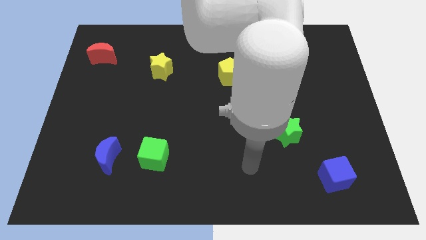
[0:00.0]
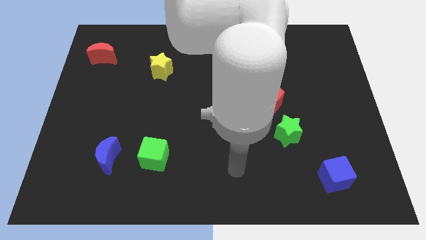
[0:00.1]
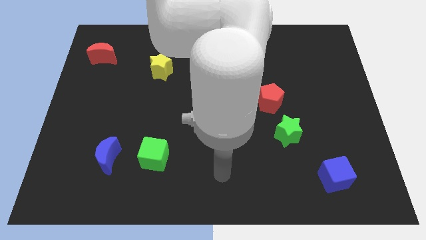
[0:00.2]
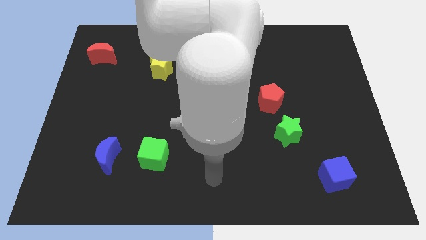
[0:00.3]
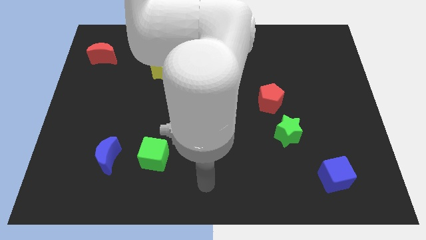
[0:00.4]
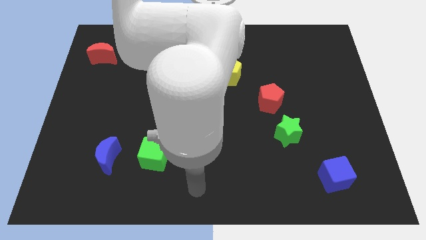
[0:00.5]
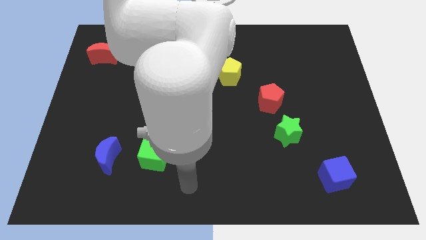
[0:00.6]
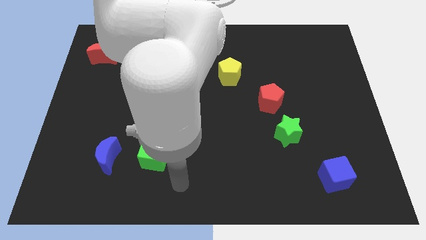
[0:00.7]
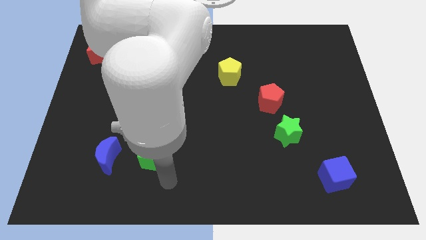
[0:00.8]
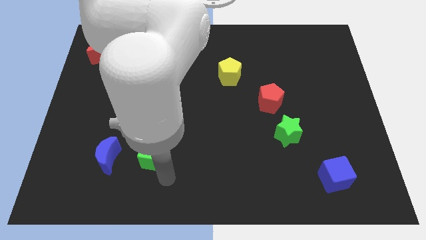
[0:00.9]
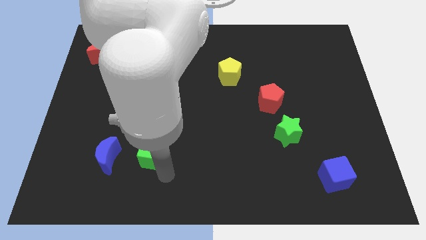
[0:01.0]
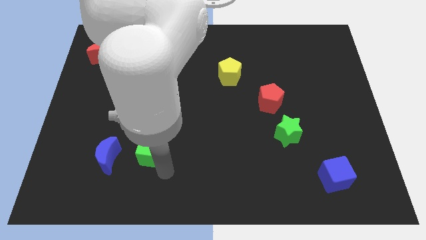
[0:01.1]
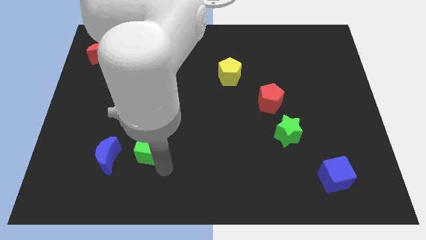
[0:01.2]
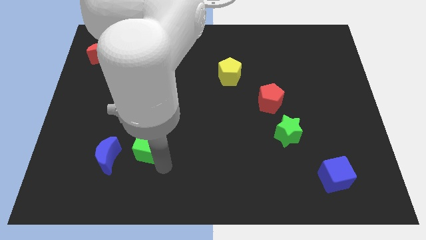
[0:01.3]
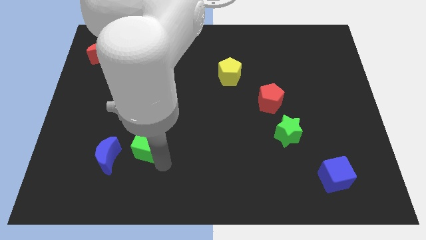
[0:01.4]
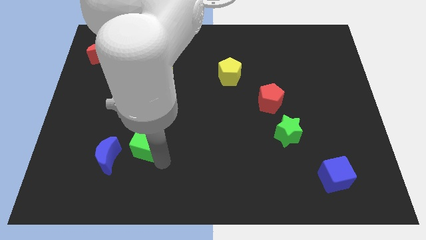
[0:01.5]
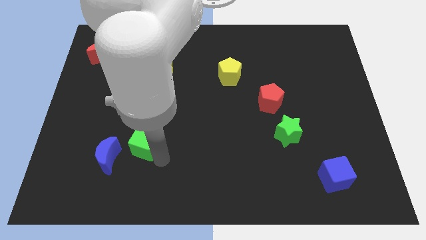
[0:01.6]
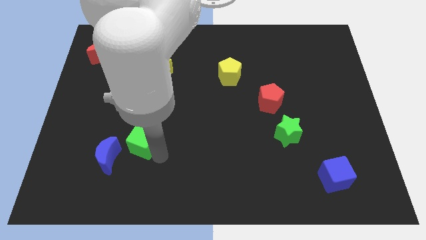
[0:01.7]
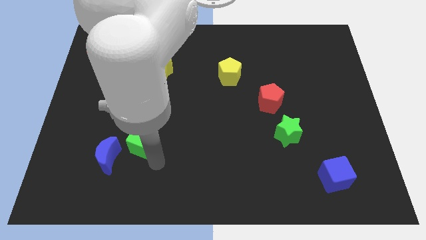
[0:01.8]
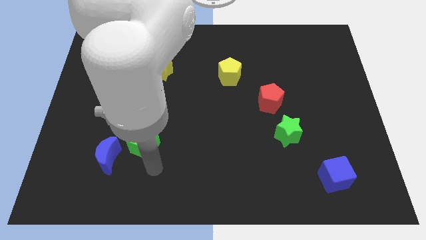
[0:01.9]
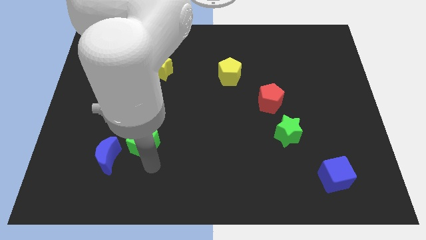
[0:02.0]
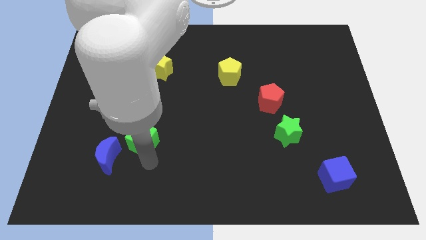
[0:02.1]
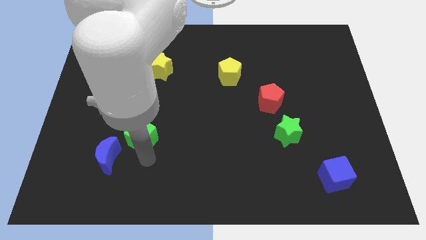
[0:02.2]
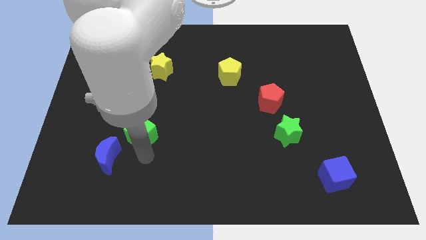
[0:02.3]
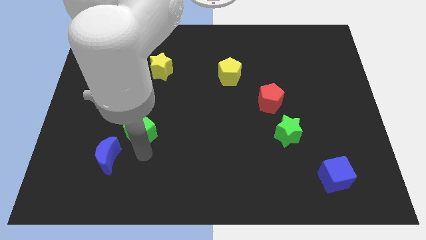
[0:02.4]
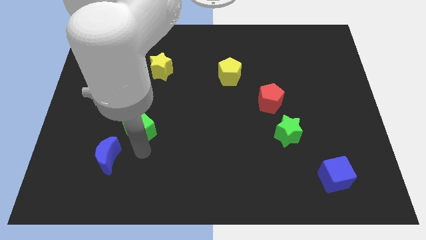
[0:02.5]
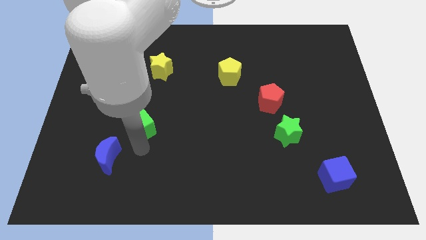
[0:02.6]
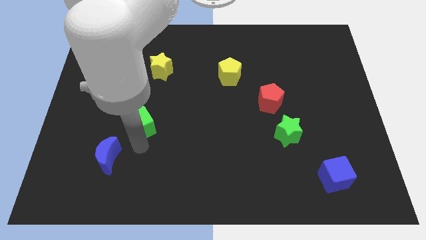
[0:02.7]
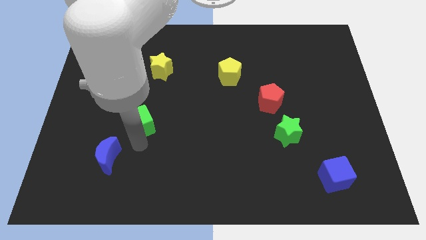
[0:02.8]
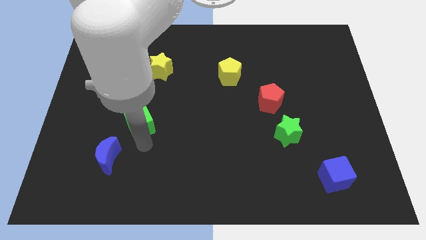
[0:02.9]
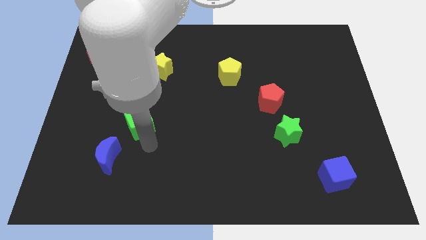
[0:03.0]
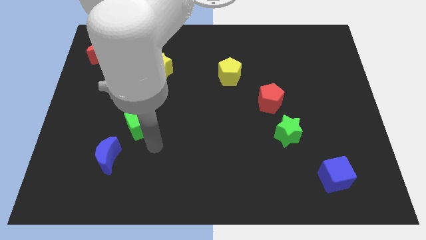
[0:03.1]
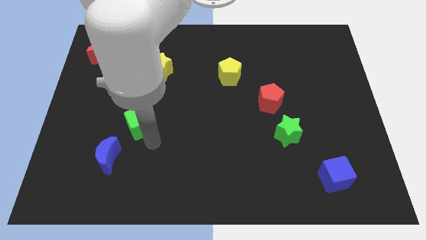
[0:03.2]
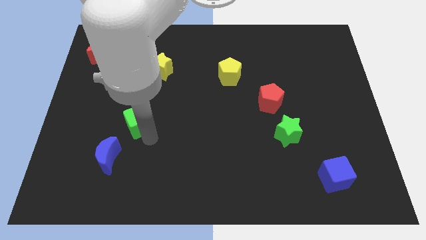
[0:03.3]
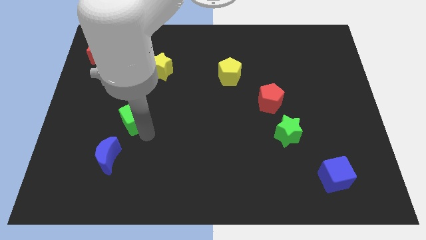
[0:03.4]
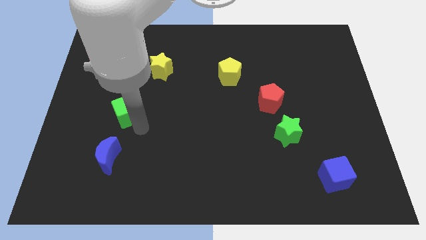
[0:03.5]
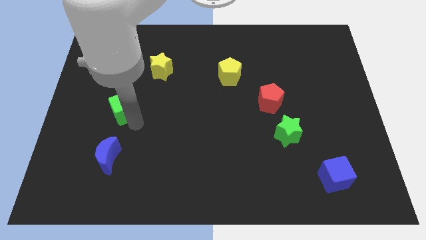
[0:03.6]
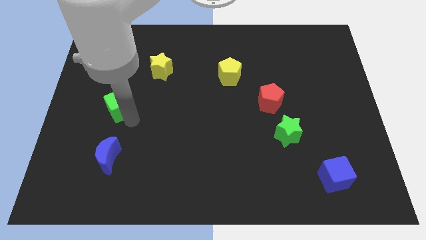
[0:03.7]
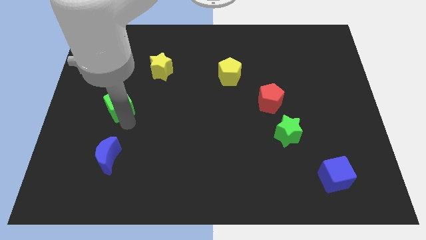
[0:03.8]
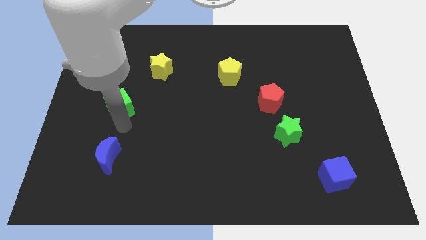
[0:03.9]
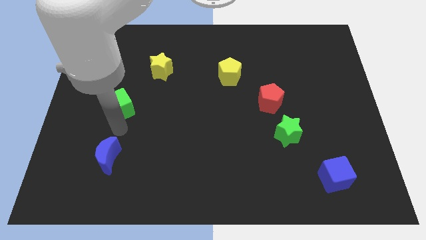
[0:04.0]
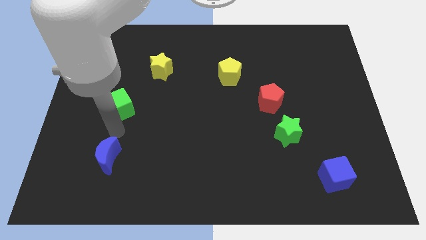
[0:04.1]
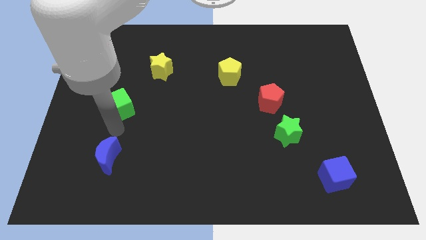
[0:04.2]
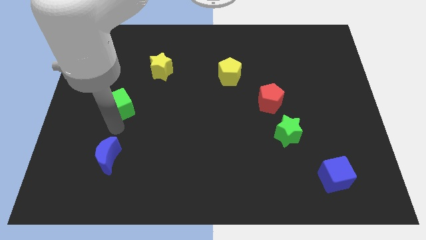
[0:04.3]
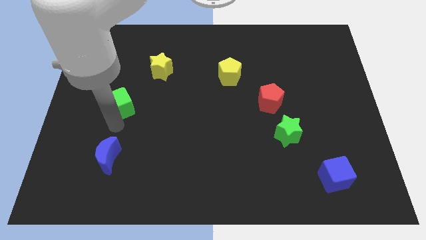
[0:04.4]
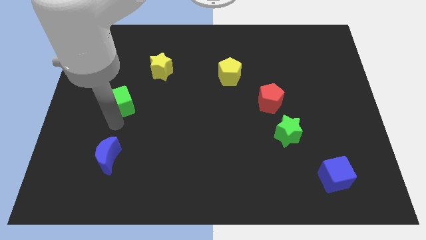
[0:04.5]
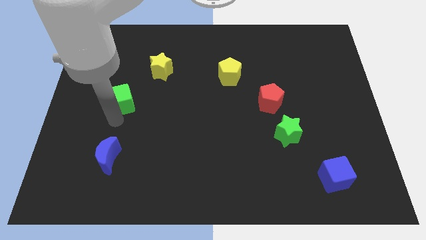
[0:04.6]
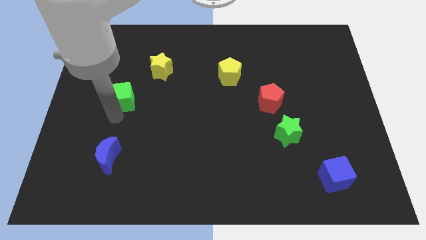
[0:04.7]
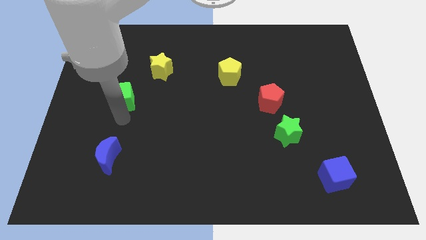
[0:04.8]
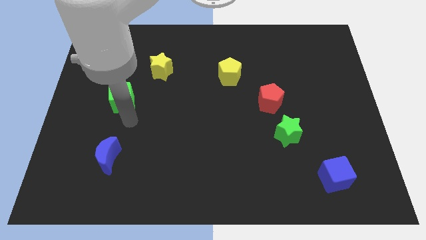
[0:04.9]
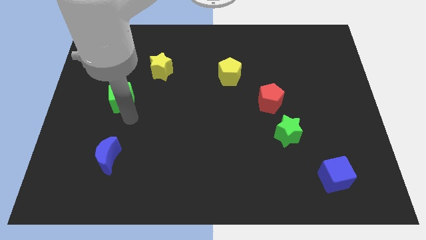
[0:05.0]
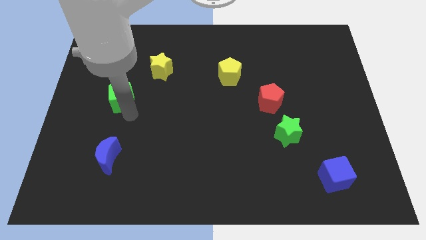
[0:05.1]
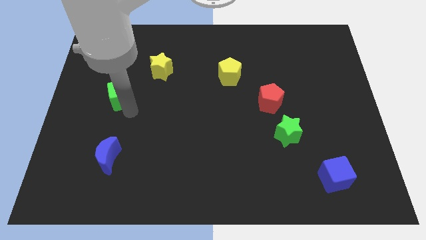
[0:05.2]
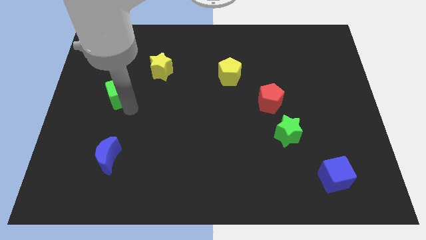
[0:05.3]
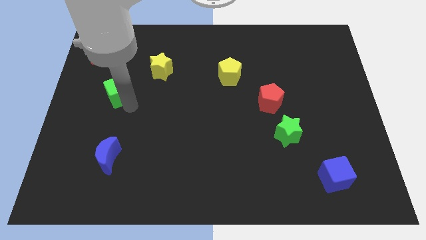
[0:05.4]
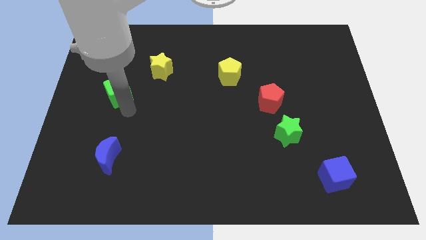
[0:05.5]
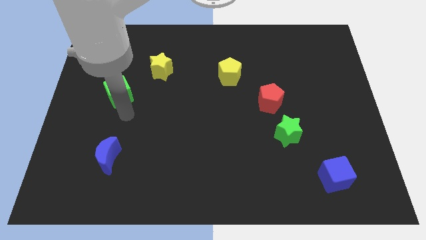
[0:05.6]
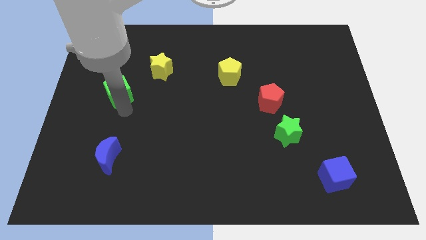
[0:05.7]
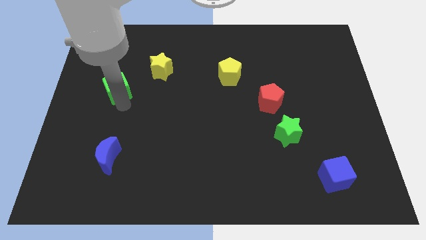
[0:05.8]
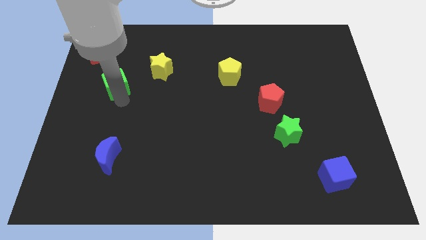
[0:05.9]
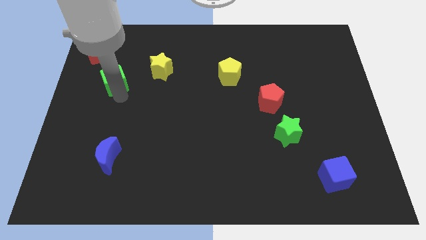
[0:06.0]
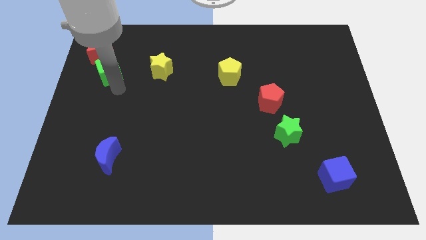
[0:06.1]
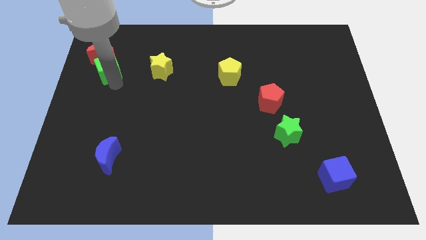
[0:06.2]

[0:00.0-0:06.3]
move the green cube close to the red moon

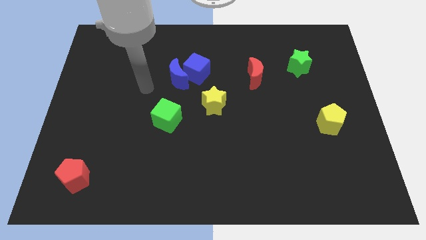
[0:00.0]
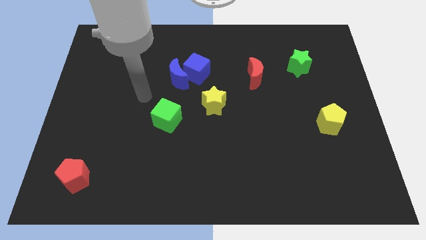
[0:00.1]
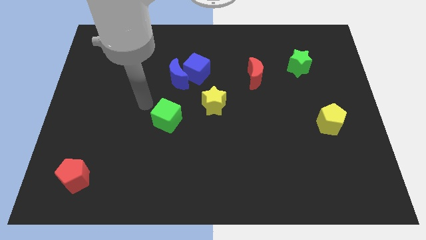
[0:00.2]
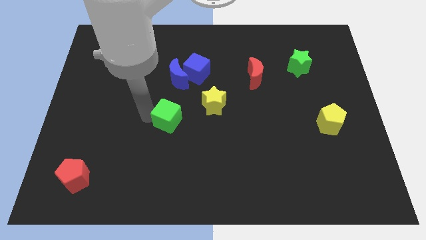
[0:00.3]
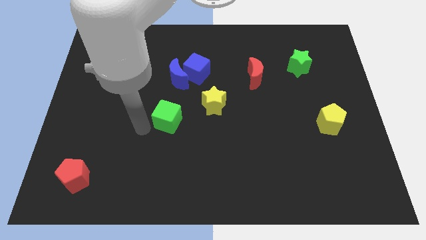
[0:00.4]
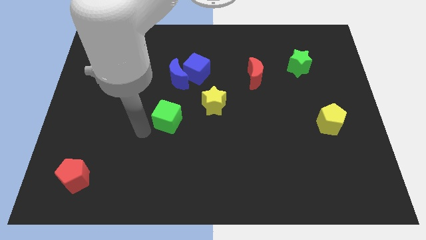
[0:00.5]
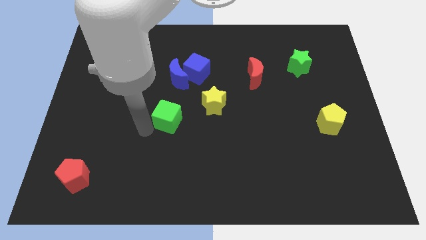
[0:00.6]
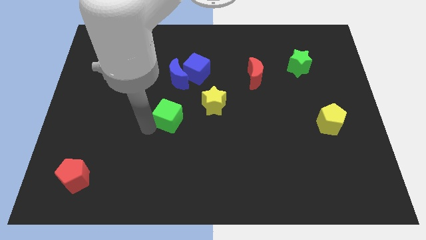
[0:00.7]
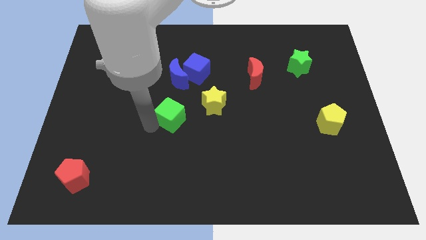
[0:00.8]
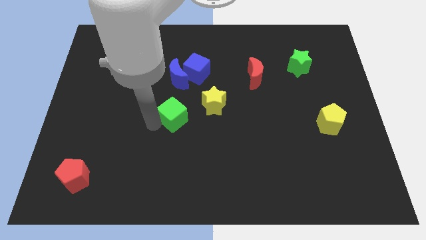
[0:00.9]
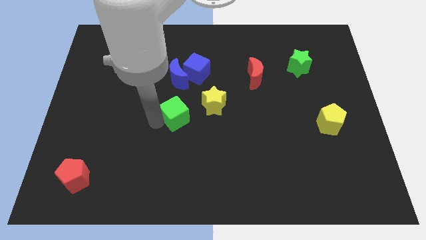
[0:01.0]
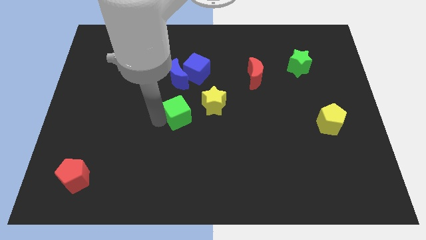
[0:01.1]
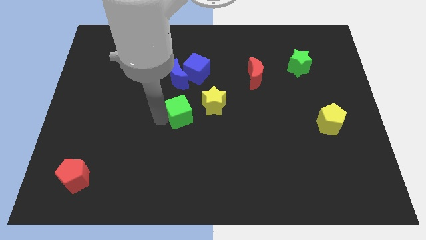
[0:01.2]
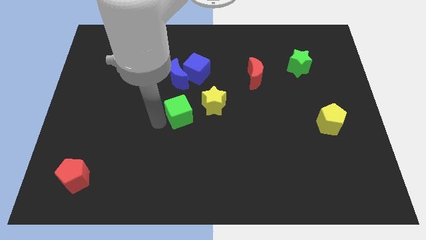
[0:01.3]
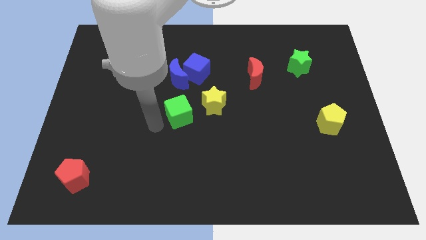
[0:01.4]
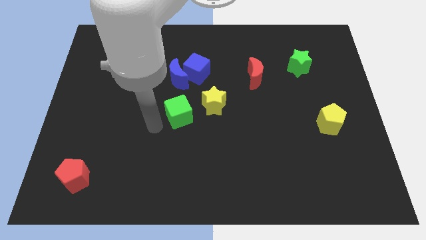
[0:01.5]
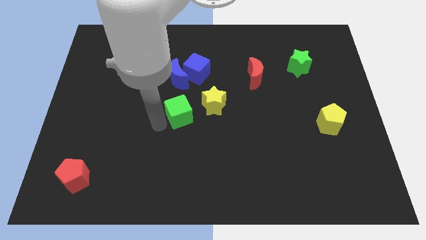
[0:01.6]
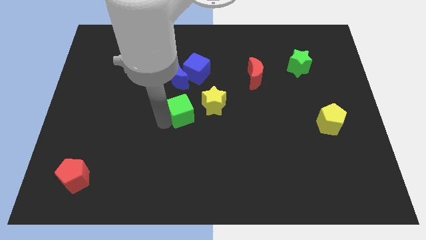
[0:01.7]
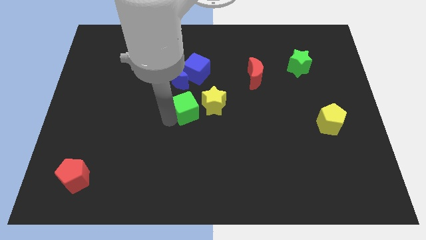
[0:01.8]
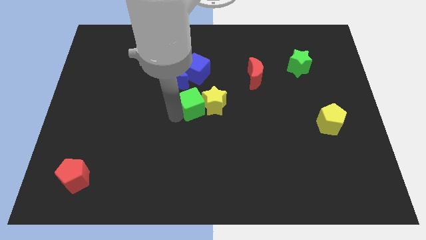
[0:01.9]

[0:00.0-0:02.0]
push the green cube close to the yellow star
